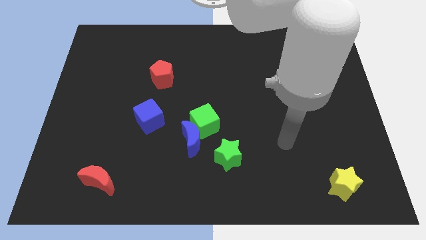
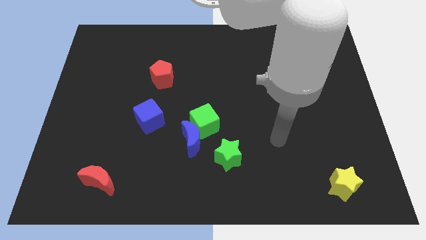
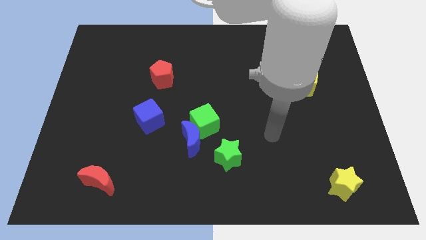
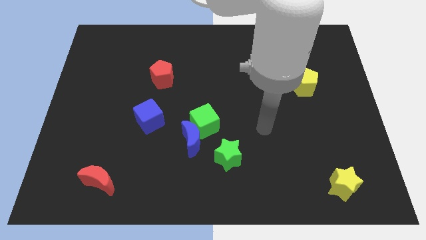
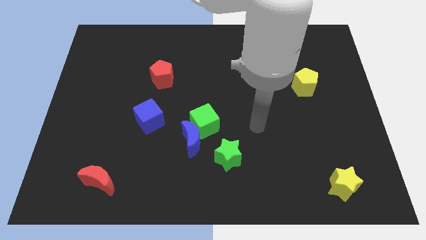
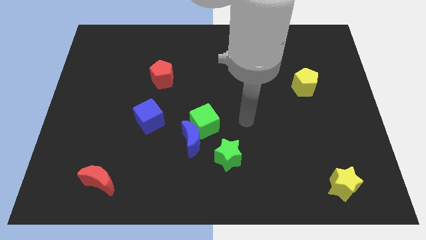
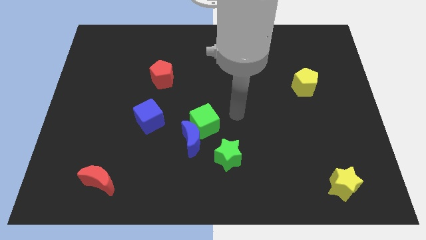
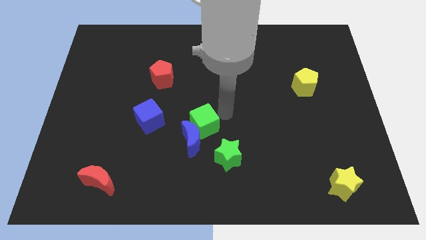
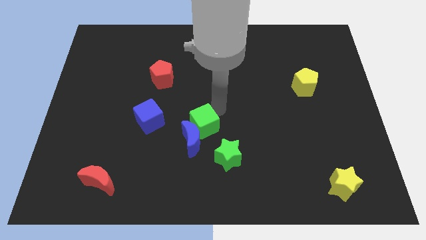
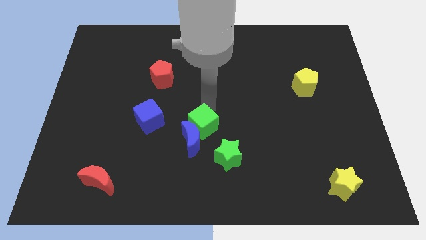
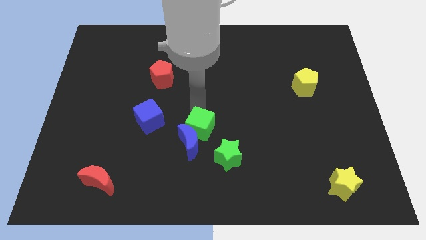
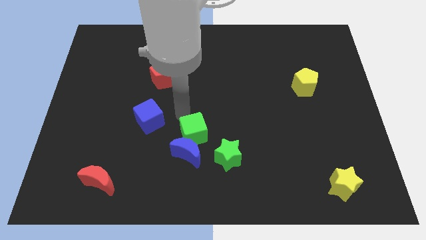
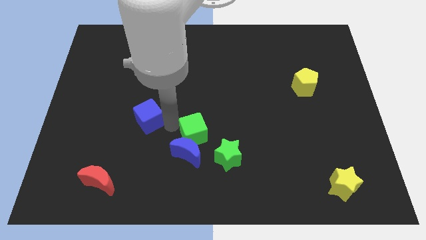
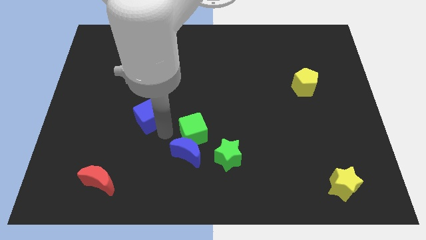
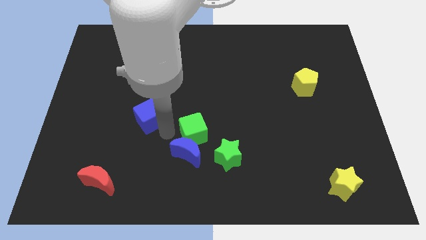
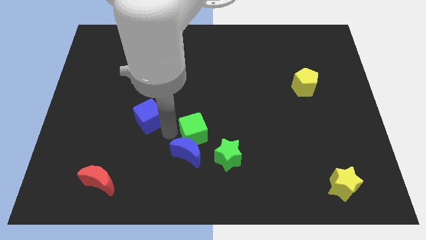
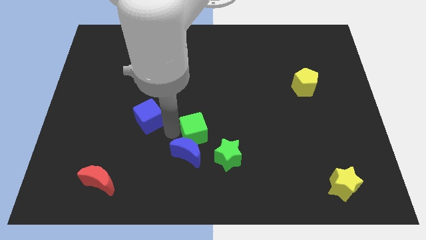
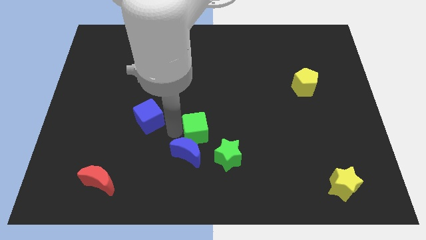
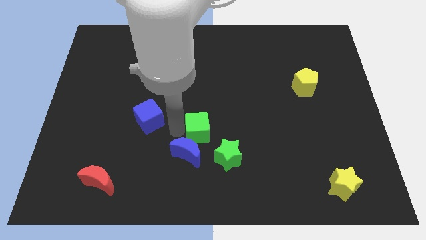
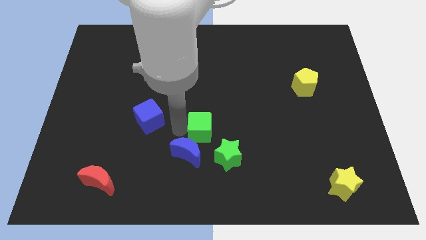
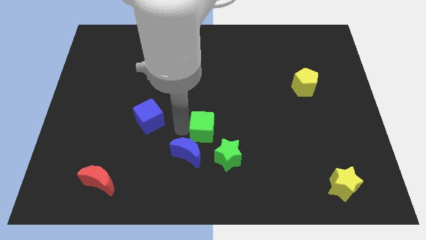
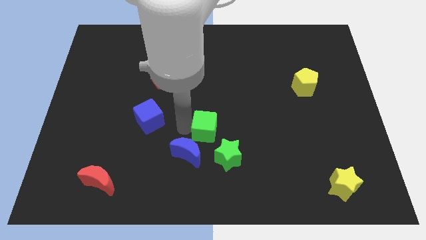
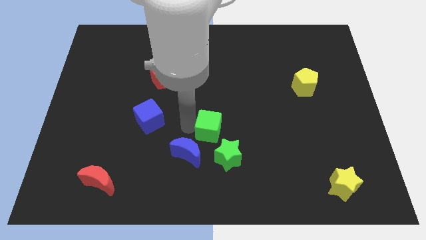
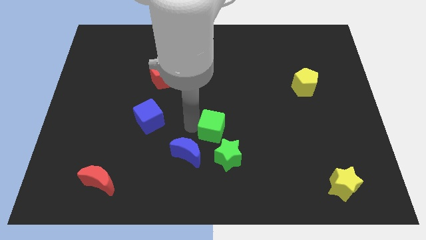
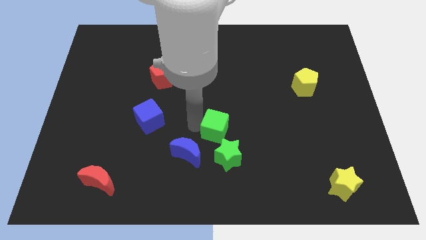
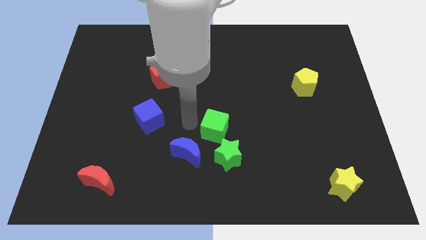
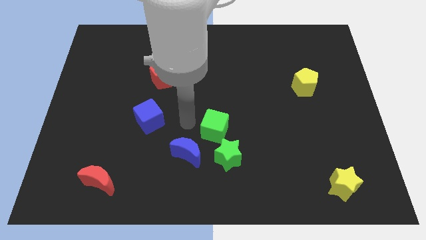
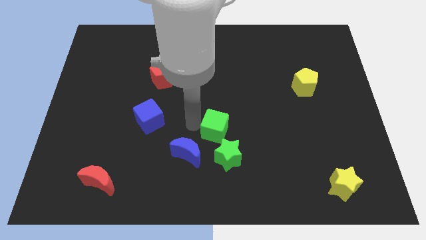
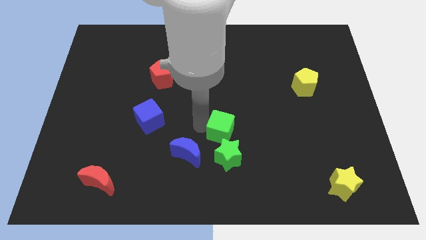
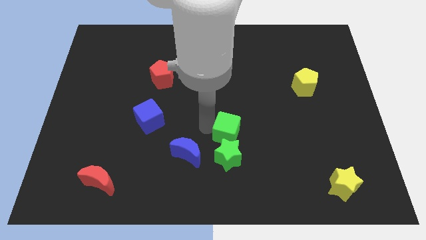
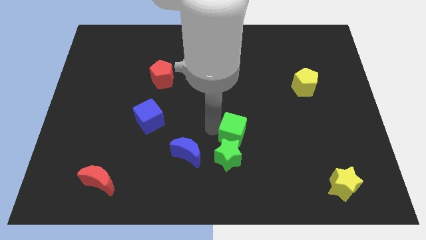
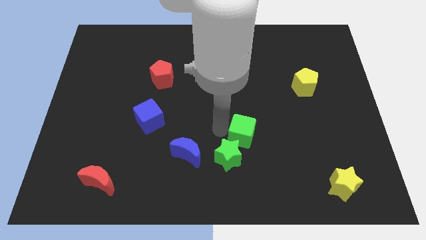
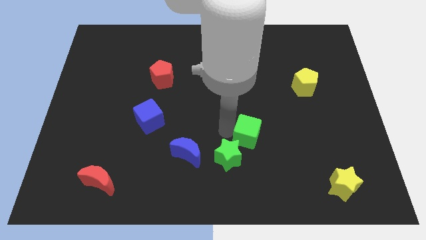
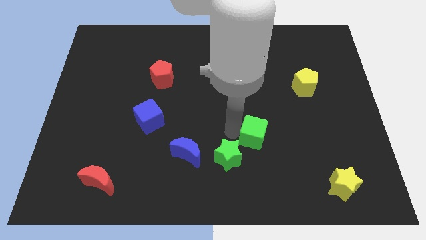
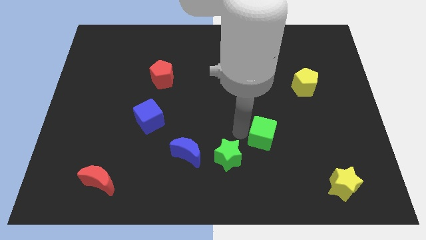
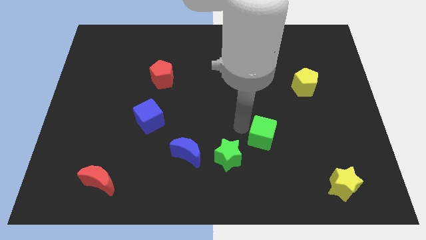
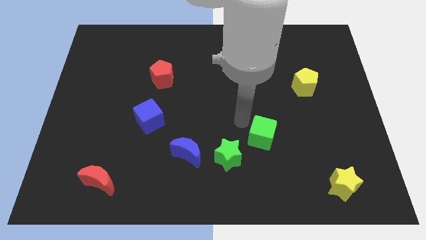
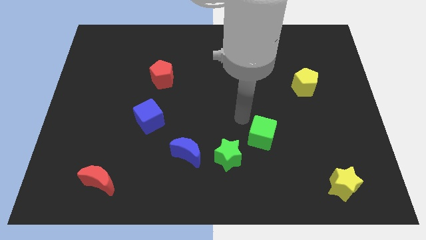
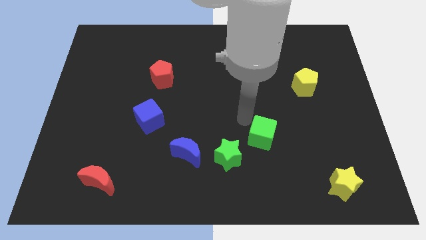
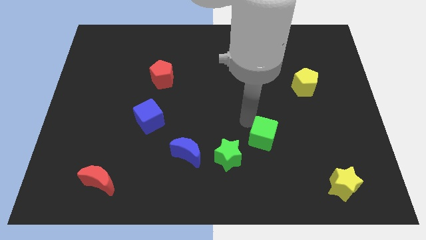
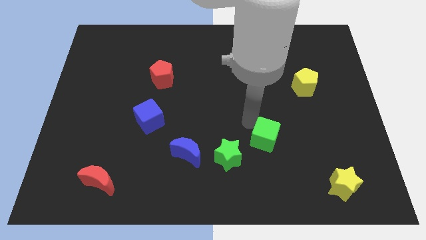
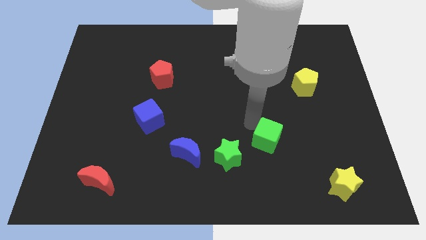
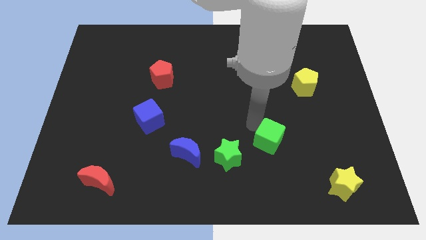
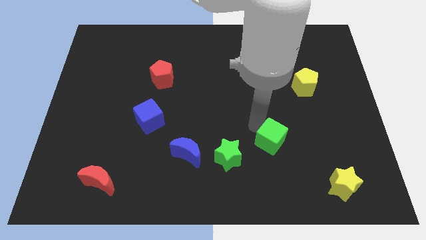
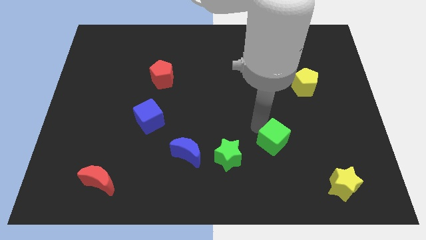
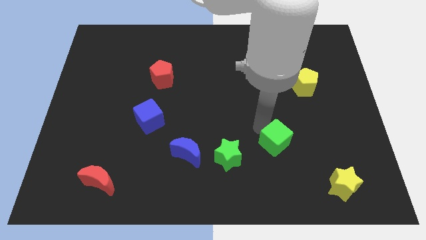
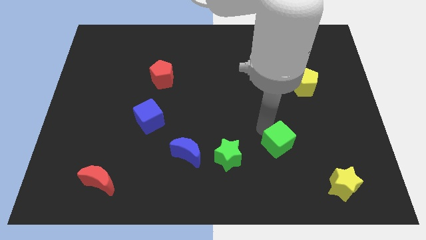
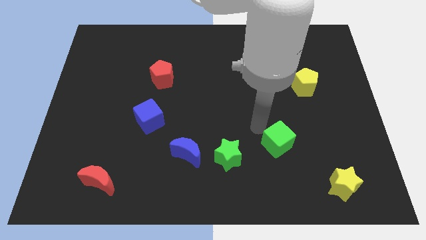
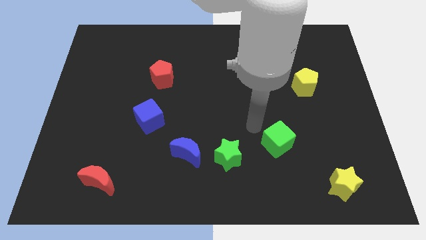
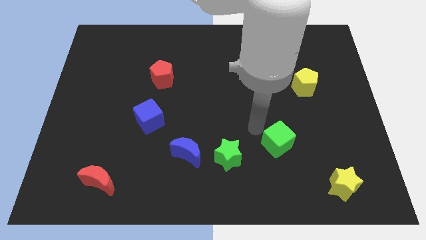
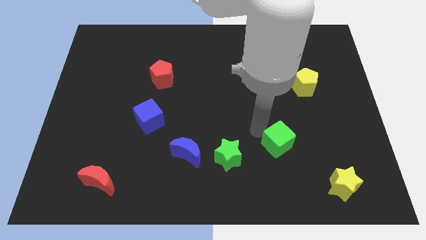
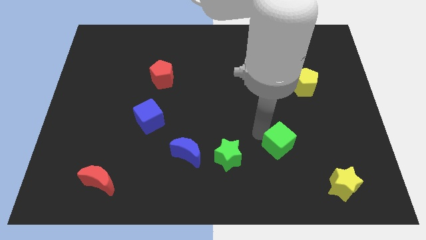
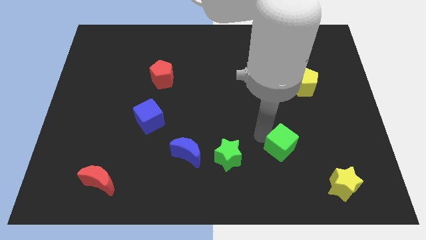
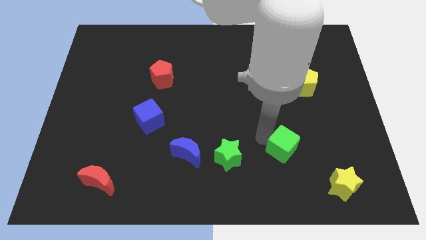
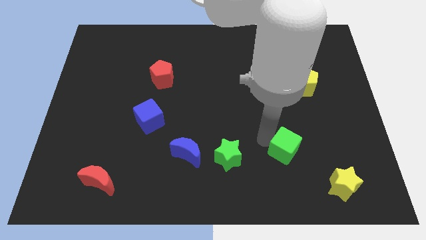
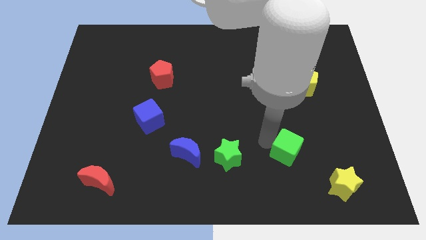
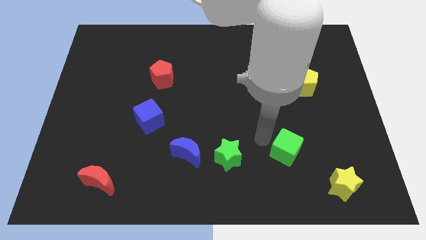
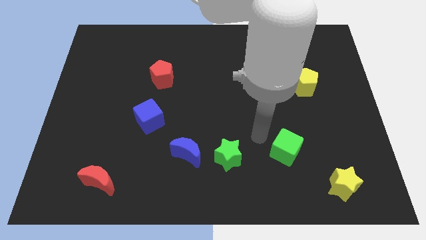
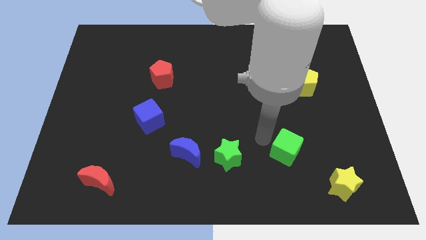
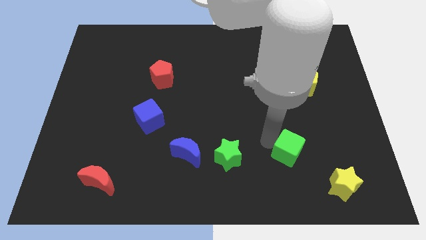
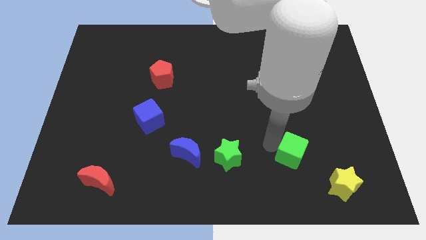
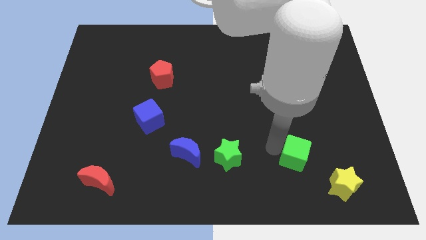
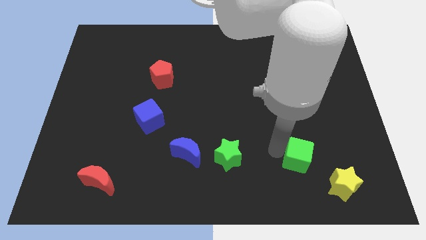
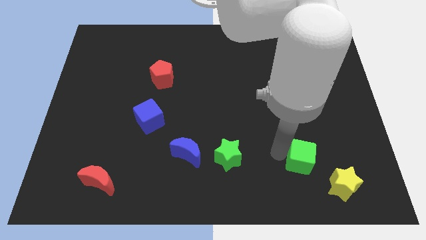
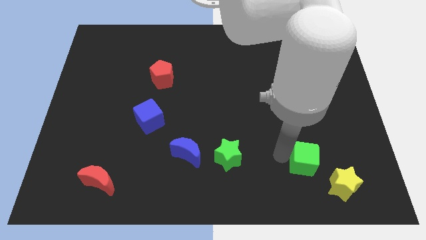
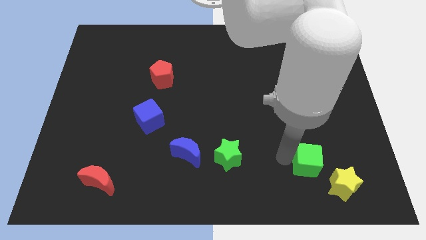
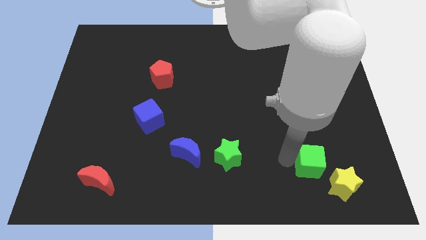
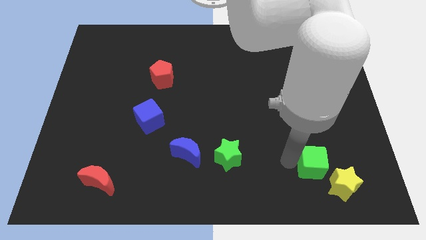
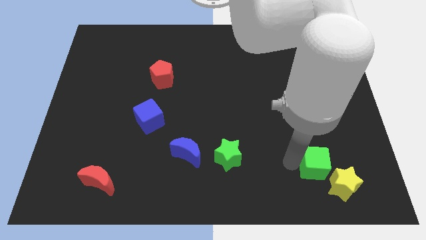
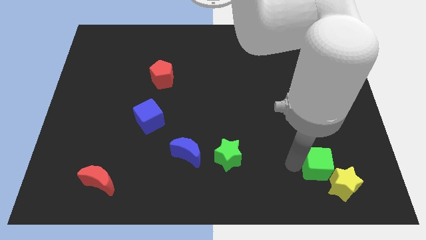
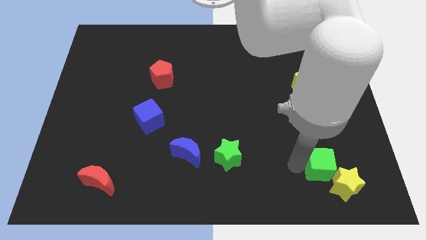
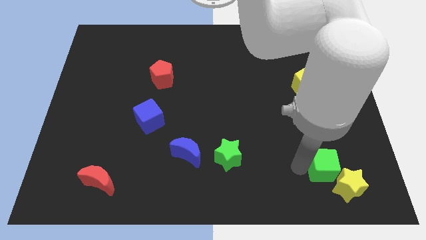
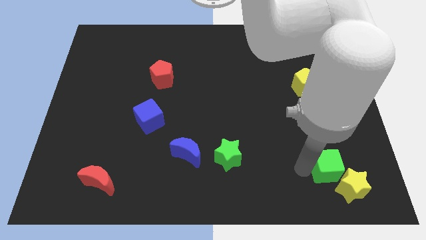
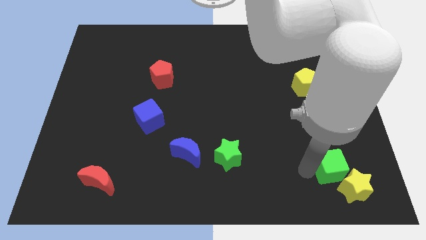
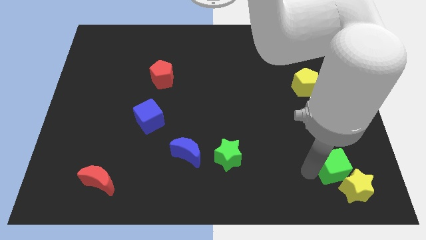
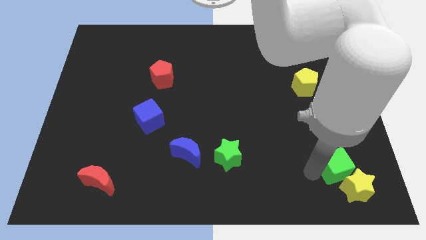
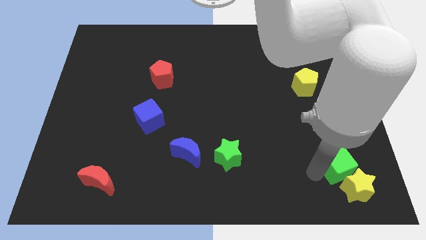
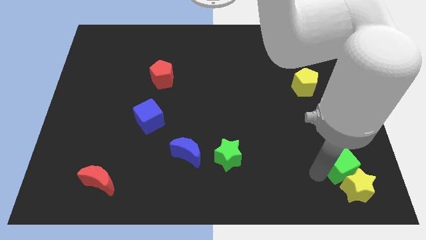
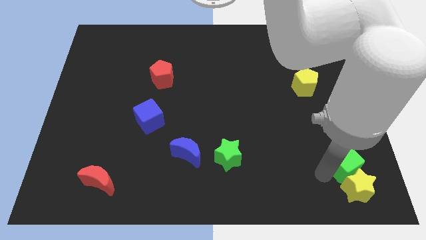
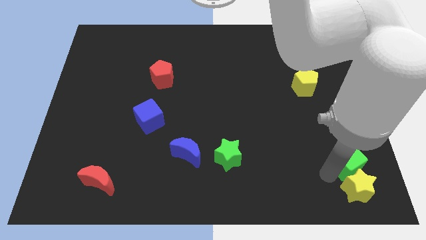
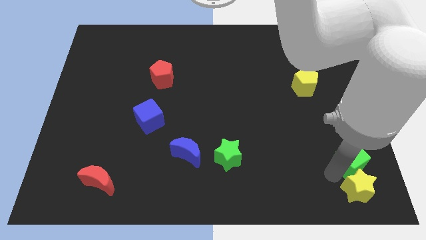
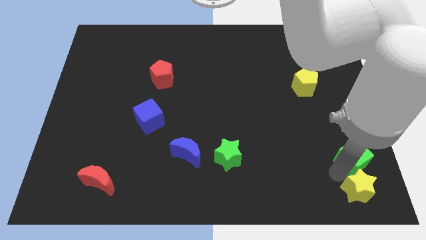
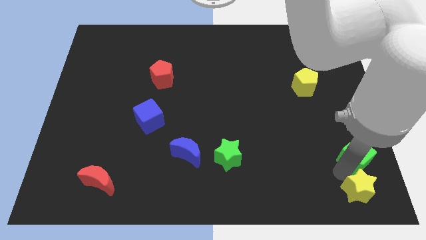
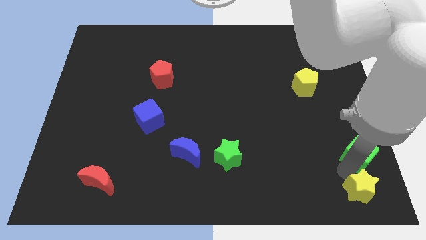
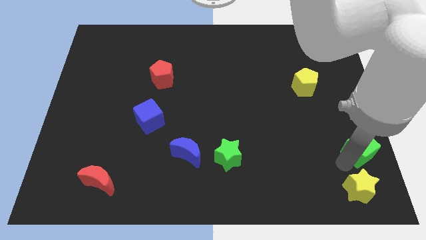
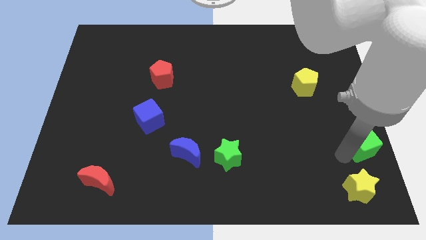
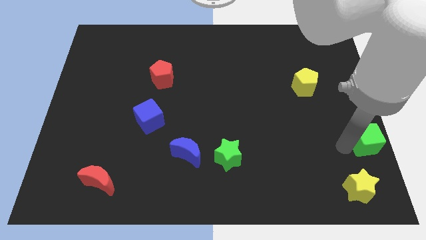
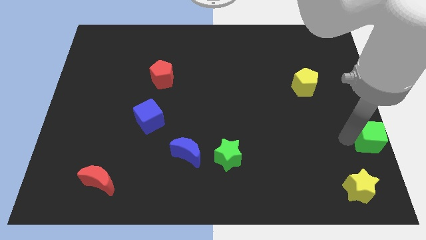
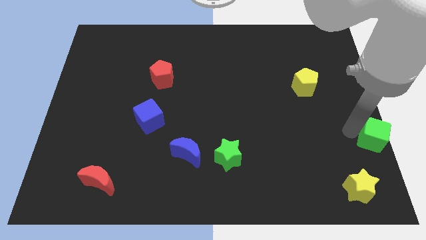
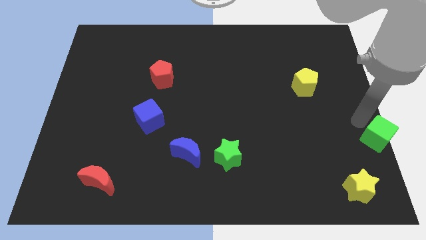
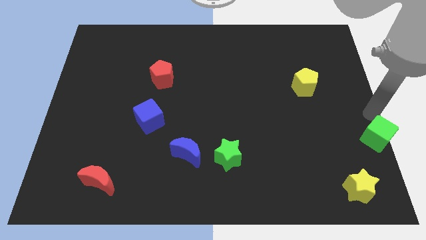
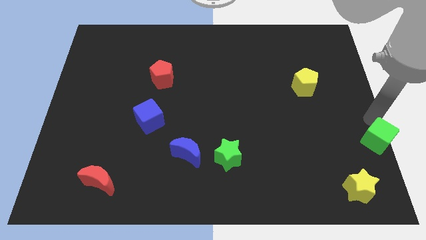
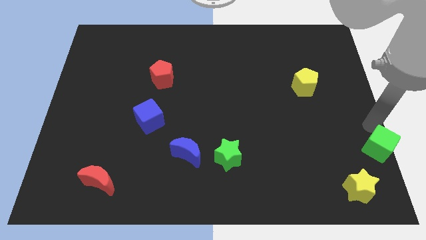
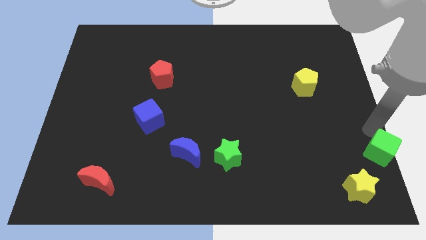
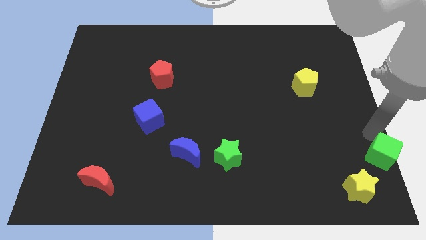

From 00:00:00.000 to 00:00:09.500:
push the green cube to the bottom right corner
